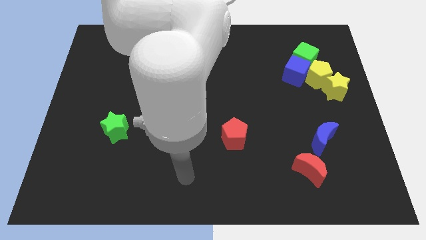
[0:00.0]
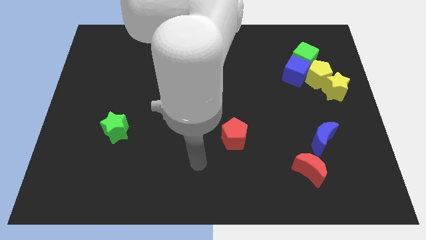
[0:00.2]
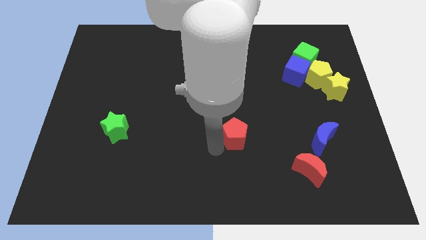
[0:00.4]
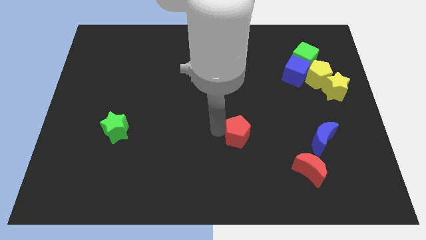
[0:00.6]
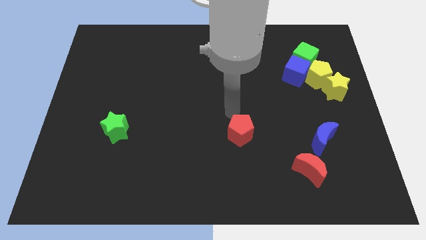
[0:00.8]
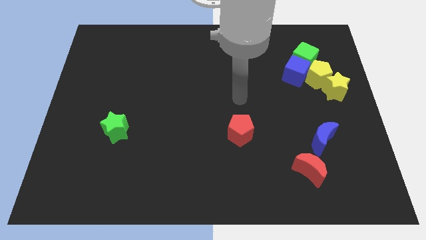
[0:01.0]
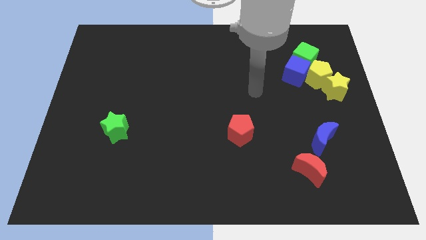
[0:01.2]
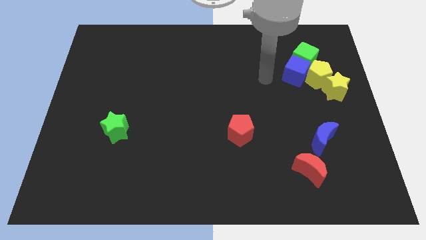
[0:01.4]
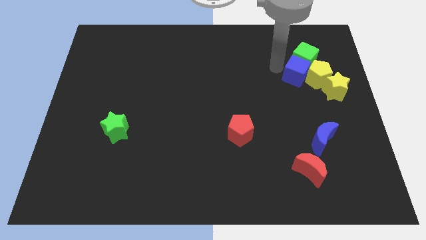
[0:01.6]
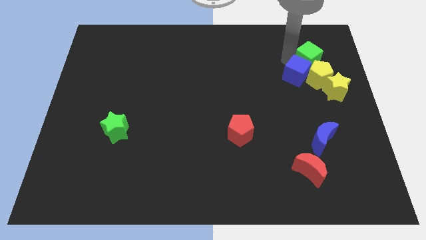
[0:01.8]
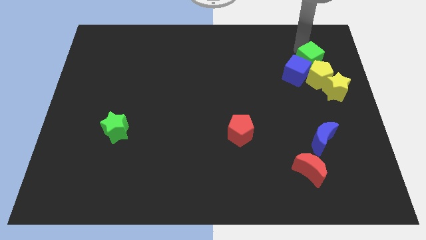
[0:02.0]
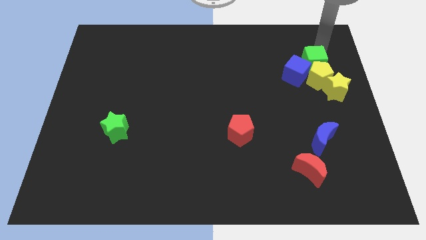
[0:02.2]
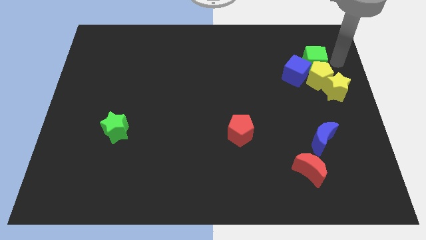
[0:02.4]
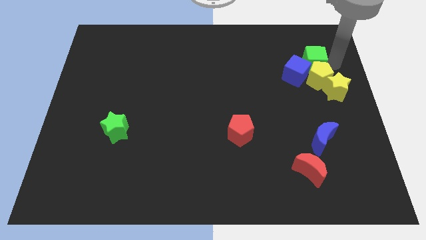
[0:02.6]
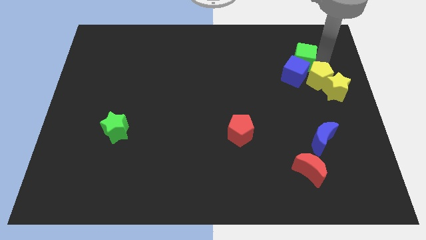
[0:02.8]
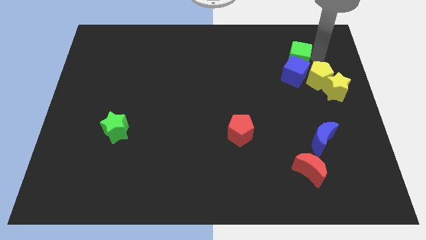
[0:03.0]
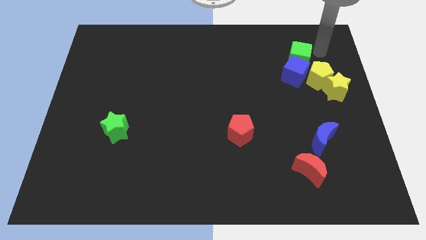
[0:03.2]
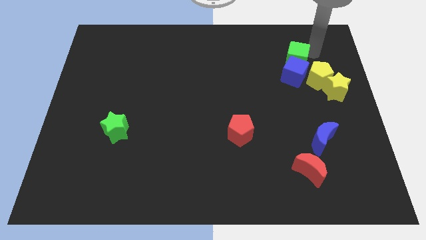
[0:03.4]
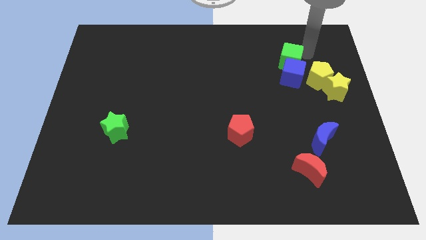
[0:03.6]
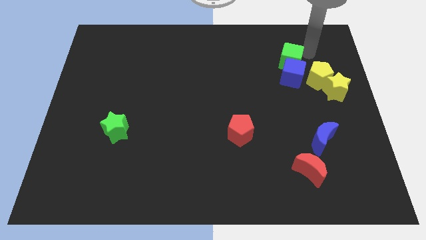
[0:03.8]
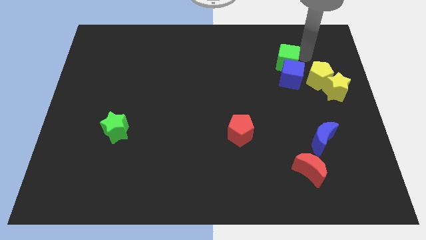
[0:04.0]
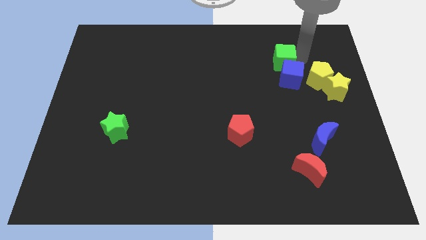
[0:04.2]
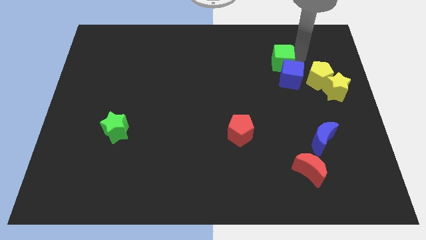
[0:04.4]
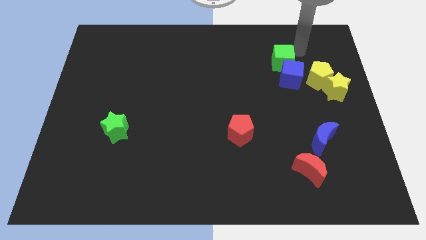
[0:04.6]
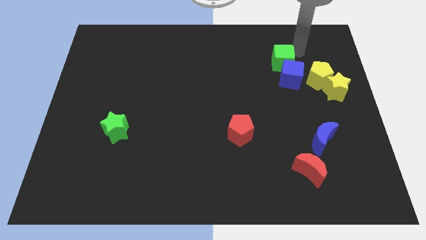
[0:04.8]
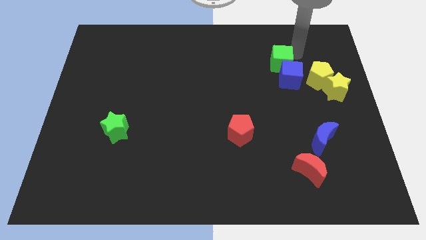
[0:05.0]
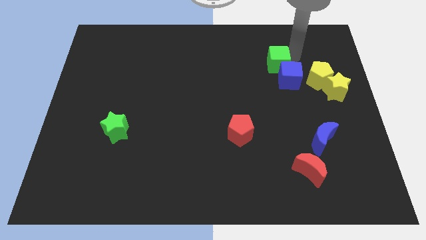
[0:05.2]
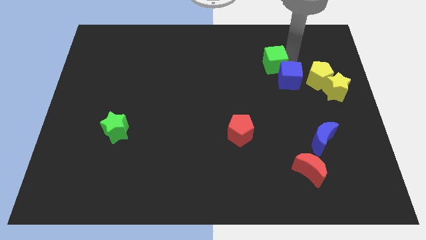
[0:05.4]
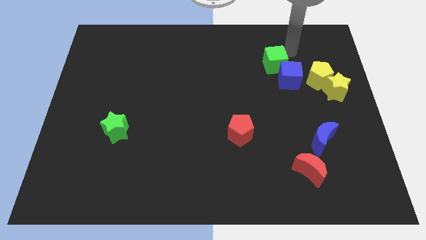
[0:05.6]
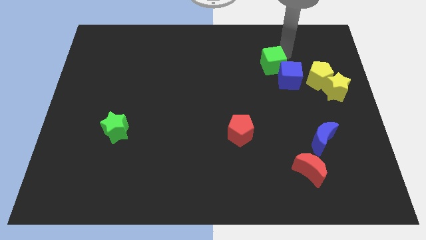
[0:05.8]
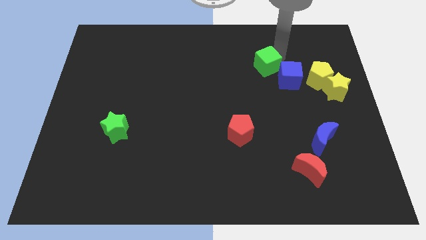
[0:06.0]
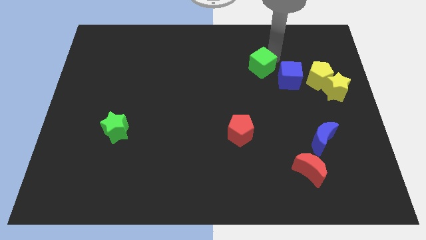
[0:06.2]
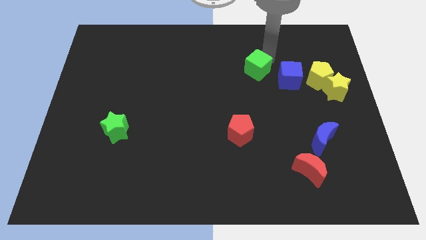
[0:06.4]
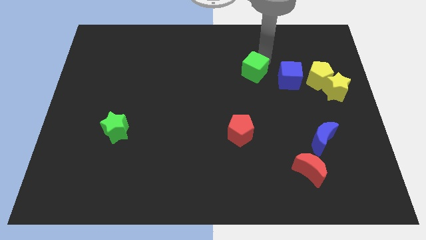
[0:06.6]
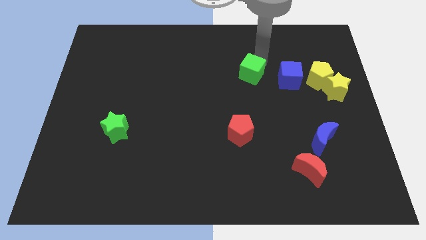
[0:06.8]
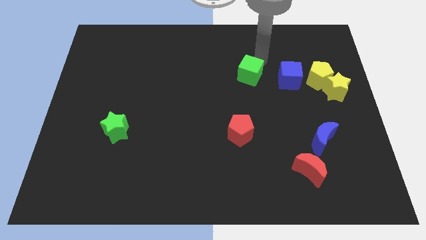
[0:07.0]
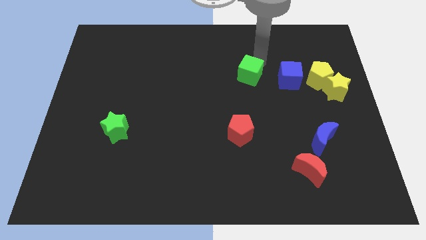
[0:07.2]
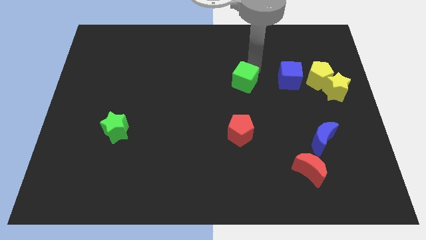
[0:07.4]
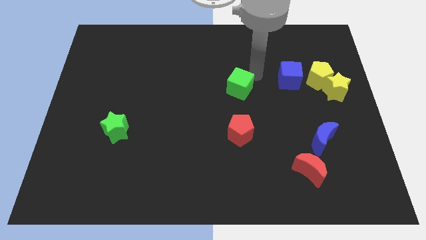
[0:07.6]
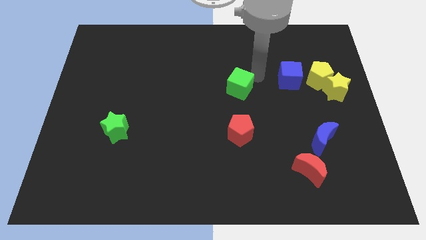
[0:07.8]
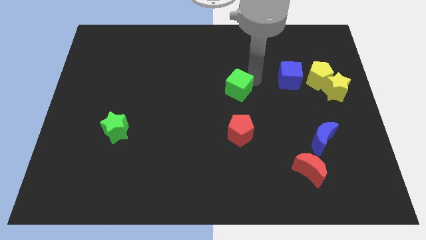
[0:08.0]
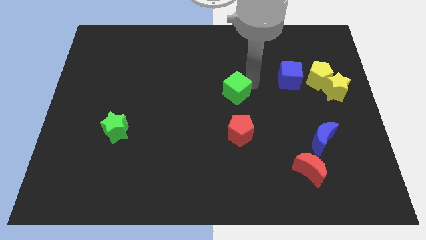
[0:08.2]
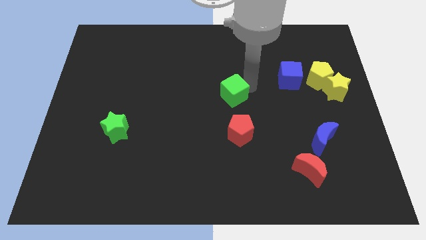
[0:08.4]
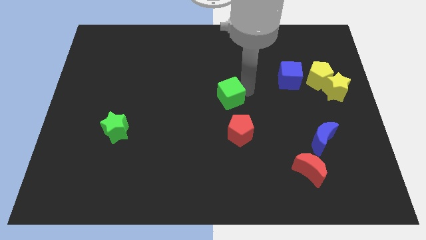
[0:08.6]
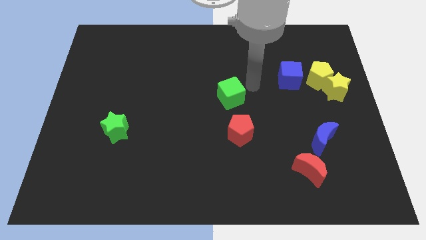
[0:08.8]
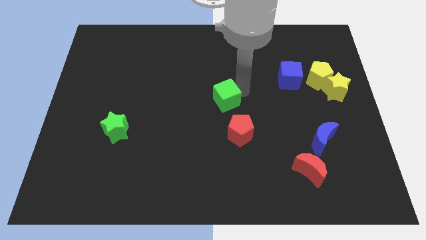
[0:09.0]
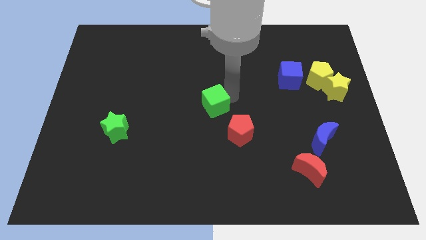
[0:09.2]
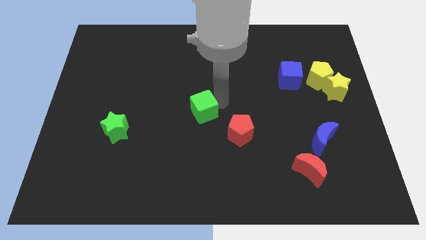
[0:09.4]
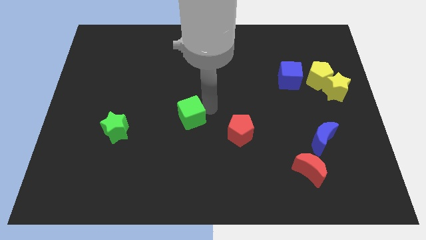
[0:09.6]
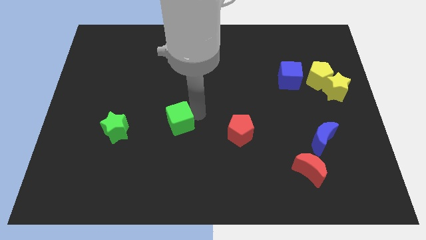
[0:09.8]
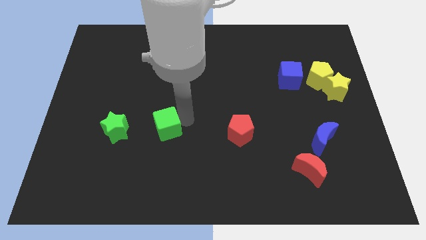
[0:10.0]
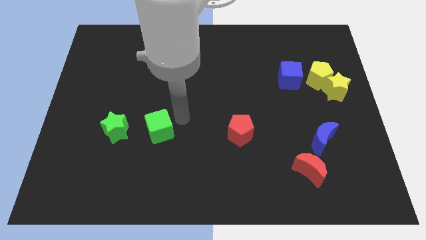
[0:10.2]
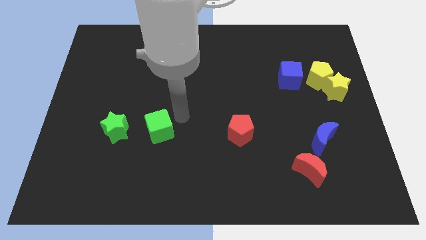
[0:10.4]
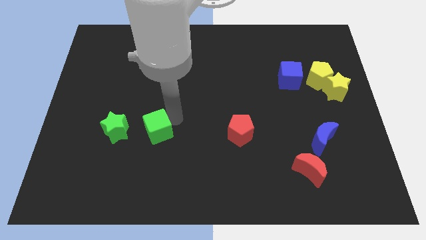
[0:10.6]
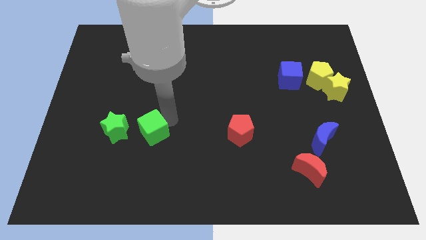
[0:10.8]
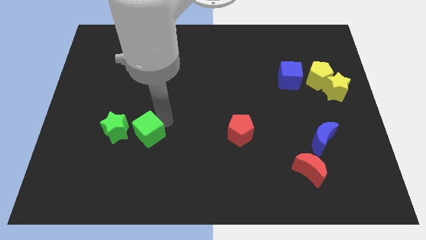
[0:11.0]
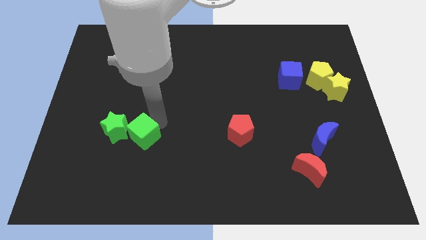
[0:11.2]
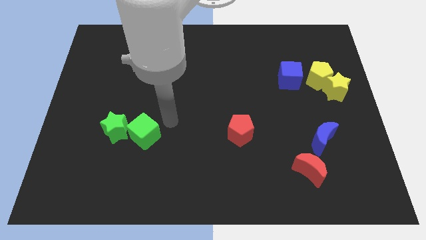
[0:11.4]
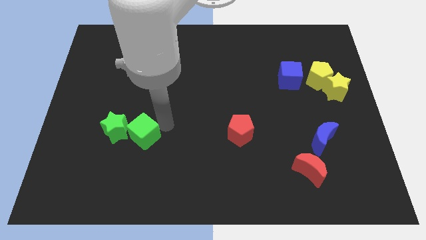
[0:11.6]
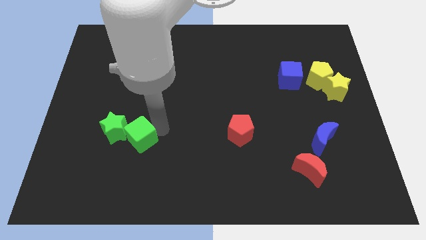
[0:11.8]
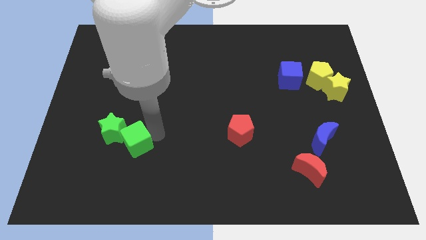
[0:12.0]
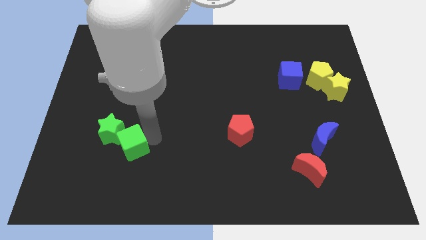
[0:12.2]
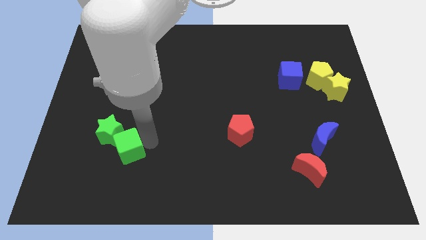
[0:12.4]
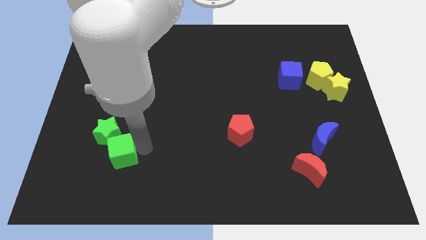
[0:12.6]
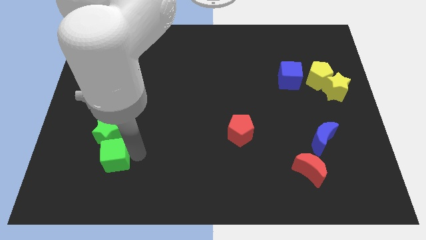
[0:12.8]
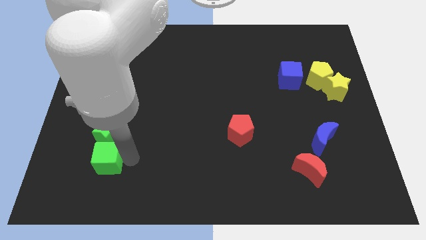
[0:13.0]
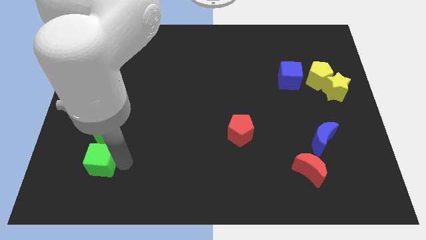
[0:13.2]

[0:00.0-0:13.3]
slide the green cube to the bottom left side of the green star
